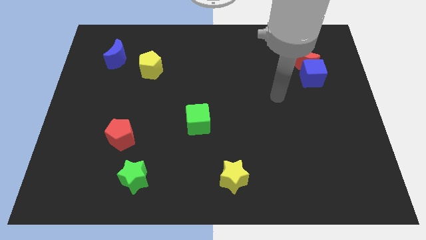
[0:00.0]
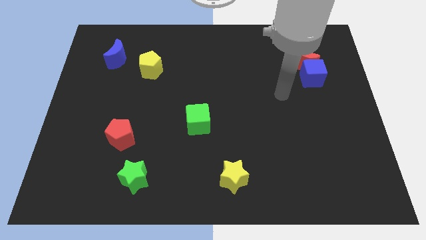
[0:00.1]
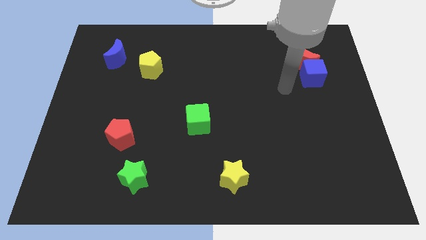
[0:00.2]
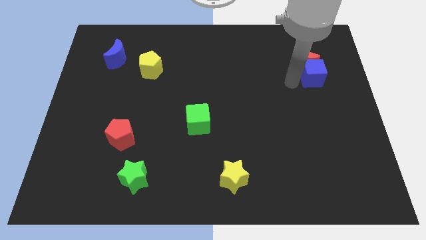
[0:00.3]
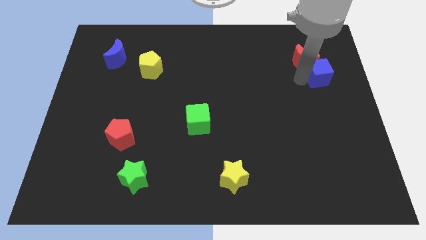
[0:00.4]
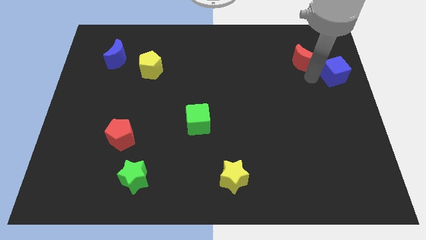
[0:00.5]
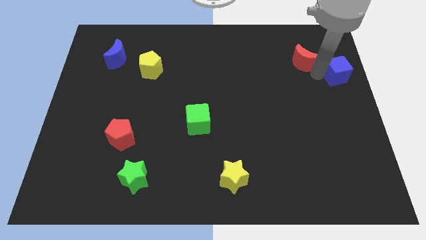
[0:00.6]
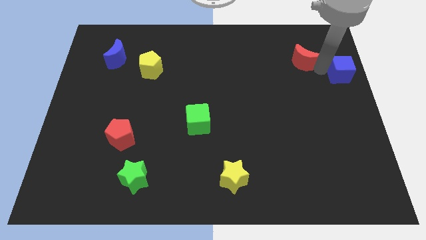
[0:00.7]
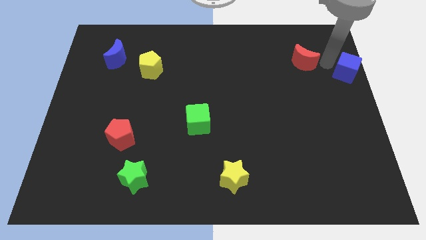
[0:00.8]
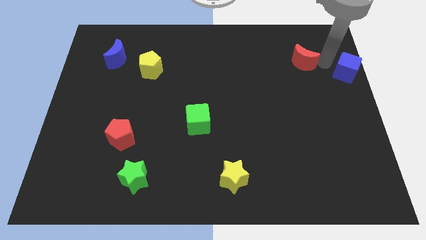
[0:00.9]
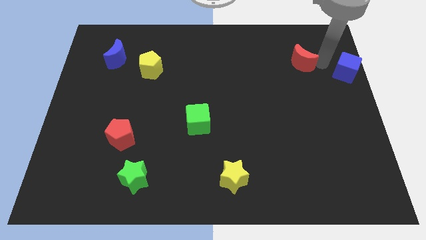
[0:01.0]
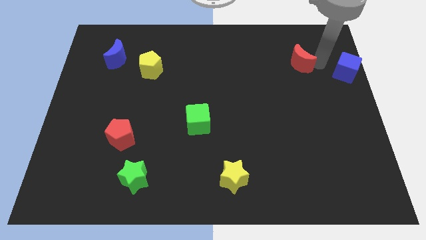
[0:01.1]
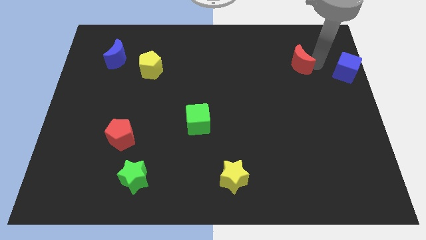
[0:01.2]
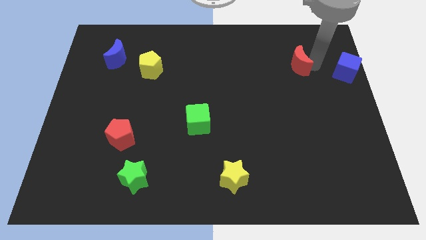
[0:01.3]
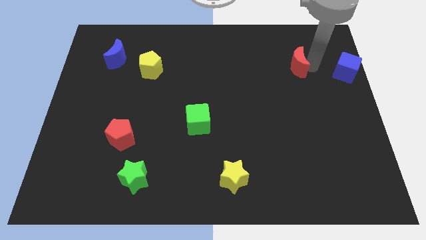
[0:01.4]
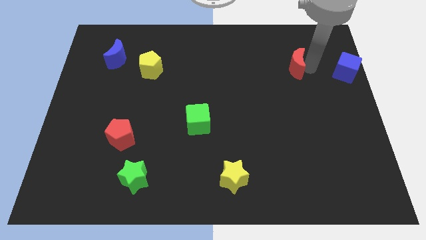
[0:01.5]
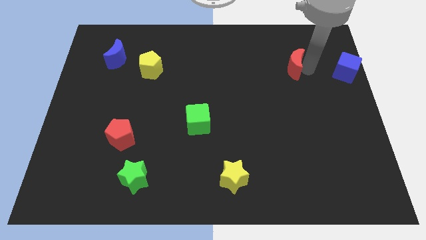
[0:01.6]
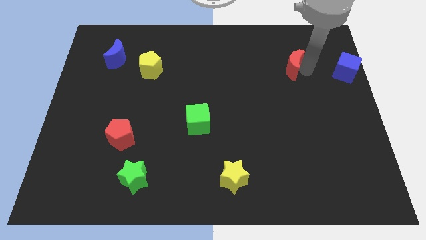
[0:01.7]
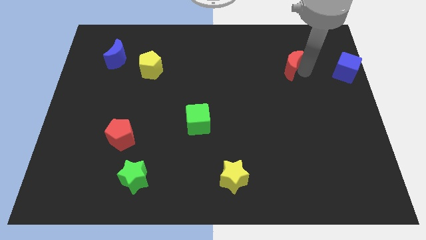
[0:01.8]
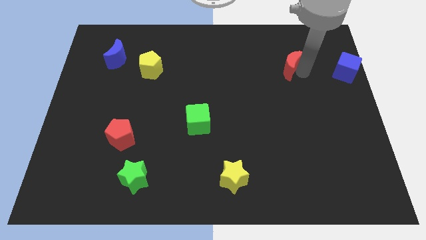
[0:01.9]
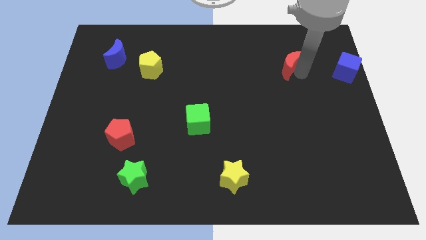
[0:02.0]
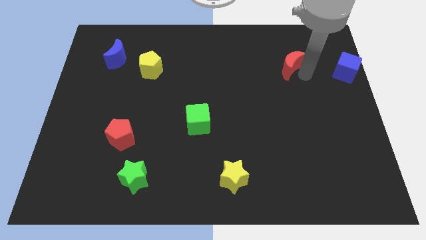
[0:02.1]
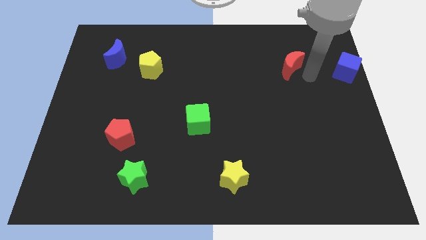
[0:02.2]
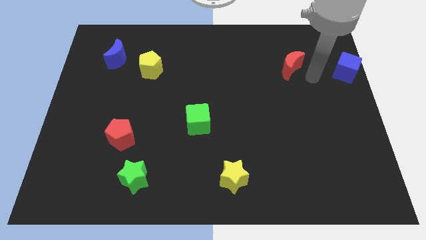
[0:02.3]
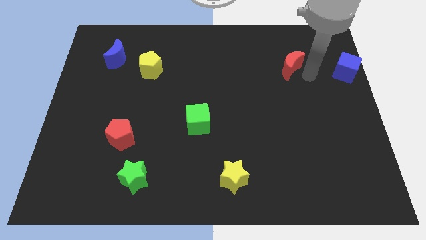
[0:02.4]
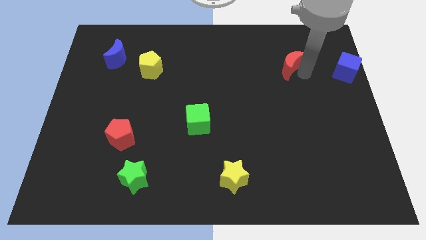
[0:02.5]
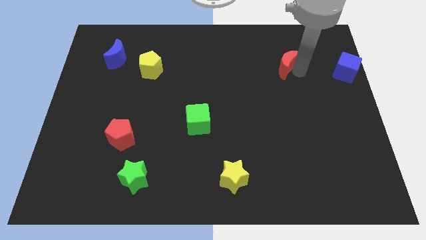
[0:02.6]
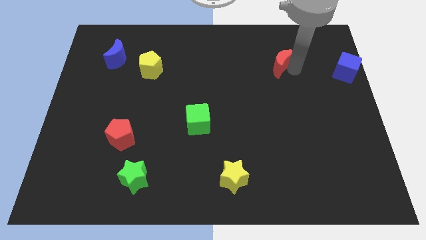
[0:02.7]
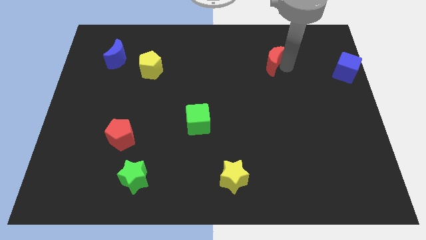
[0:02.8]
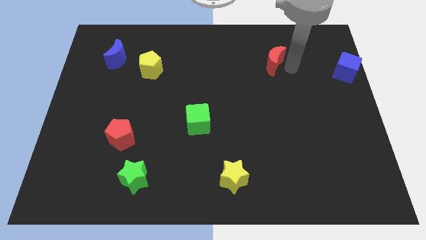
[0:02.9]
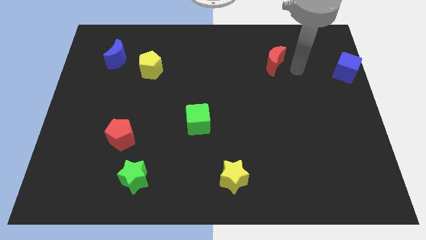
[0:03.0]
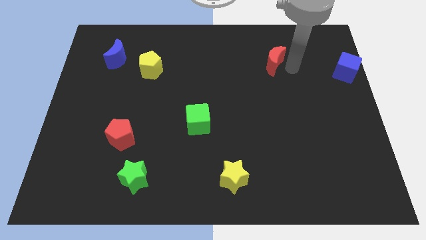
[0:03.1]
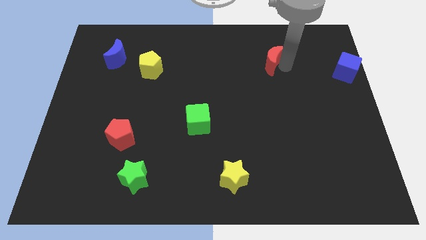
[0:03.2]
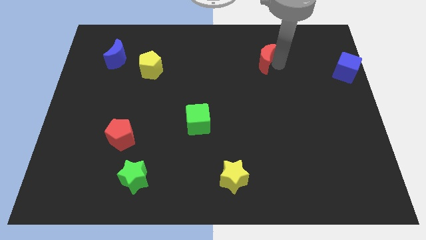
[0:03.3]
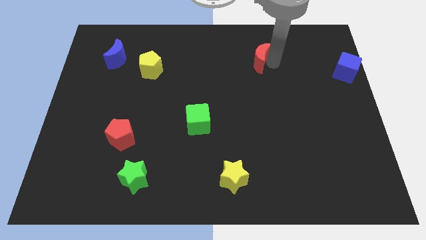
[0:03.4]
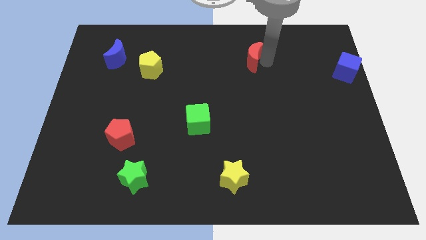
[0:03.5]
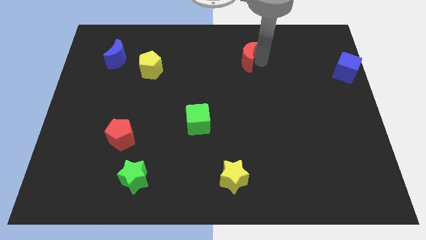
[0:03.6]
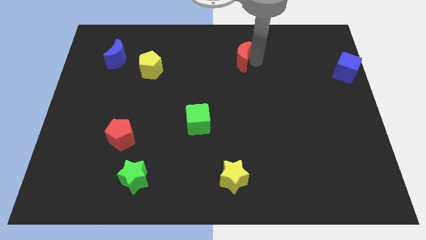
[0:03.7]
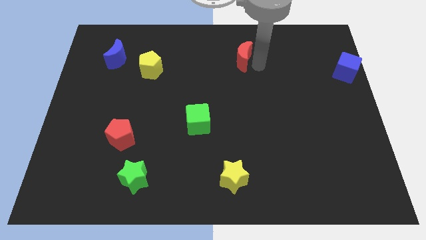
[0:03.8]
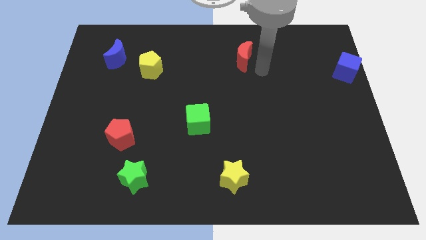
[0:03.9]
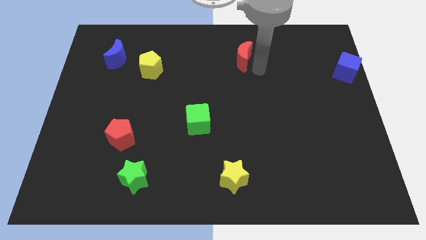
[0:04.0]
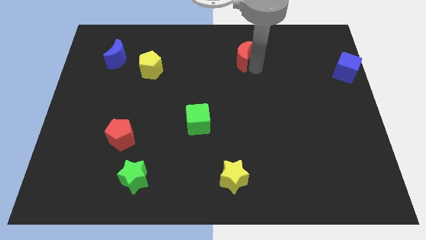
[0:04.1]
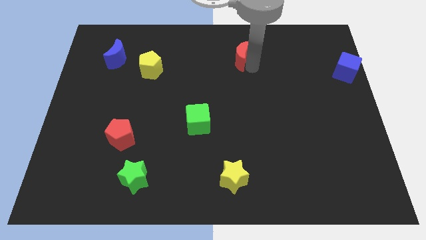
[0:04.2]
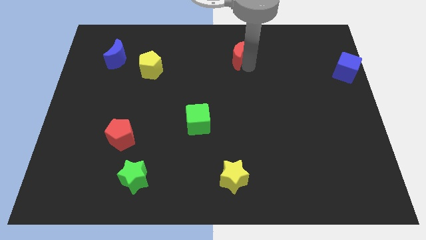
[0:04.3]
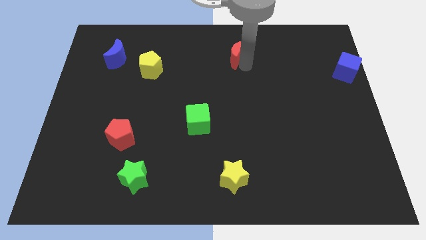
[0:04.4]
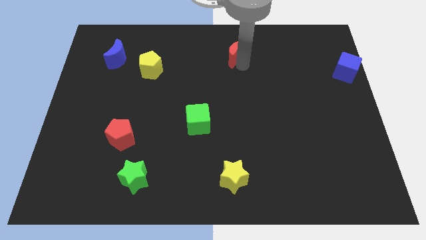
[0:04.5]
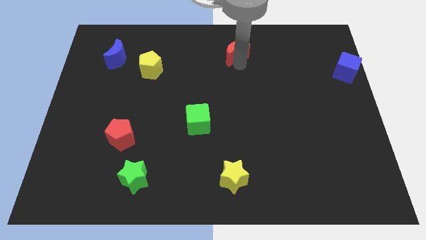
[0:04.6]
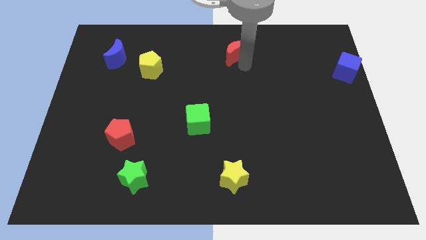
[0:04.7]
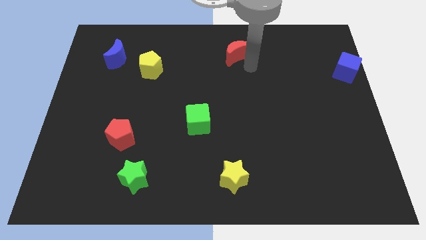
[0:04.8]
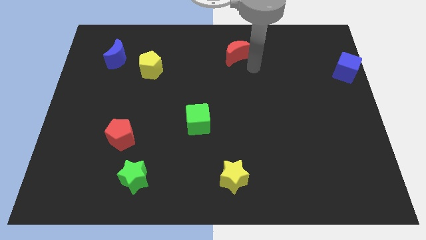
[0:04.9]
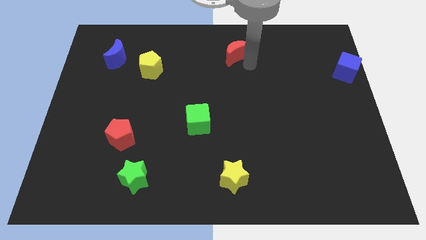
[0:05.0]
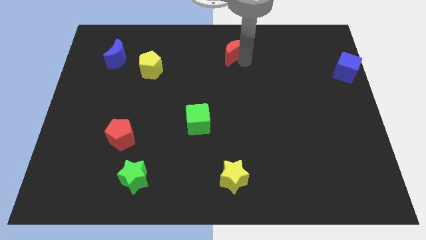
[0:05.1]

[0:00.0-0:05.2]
put the red moon to the top

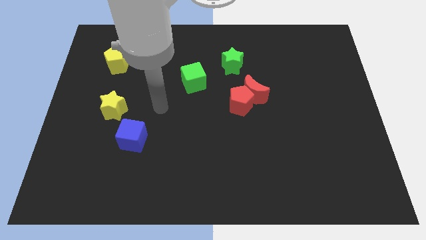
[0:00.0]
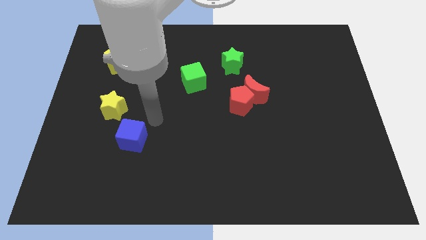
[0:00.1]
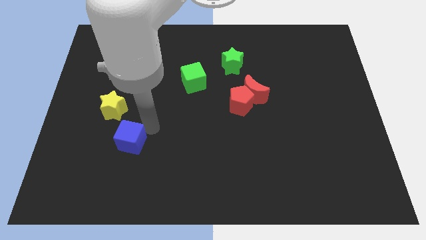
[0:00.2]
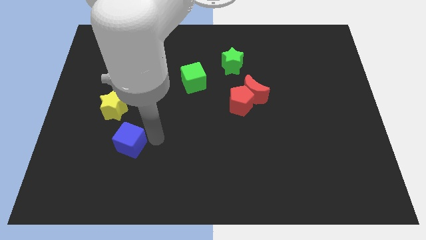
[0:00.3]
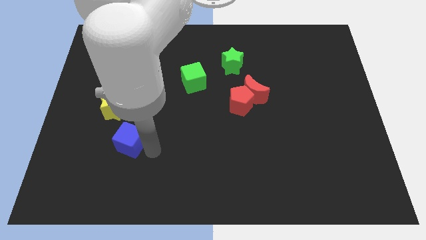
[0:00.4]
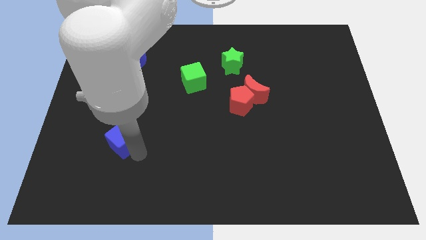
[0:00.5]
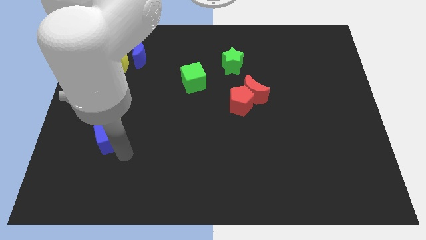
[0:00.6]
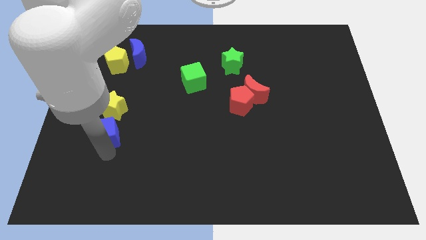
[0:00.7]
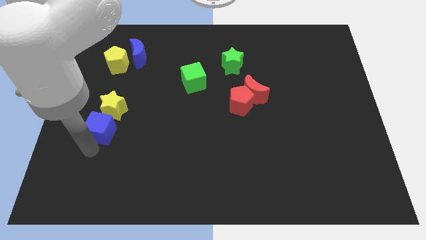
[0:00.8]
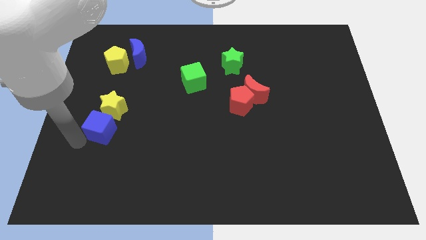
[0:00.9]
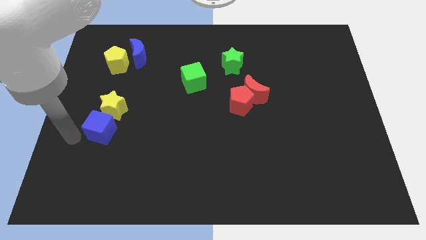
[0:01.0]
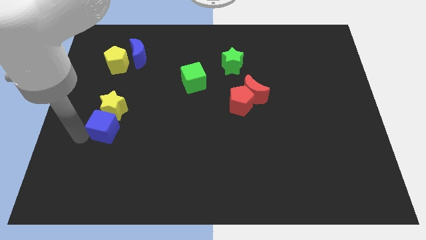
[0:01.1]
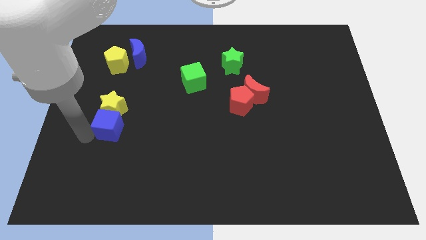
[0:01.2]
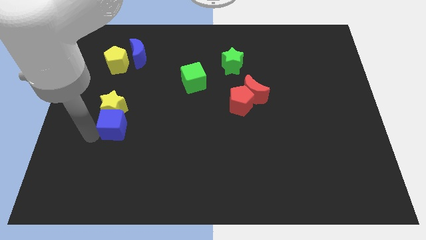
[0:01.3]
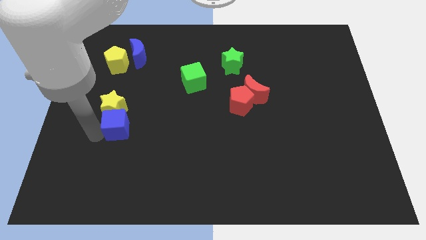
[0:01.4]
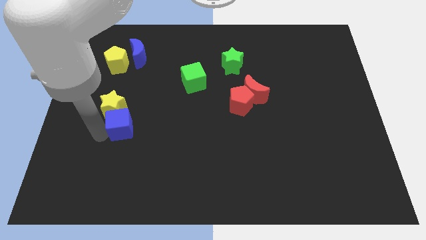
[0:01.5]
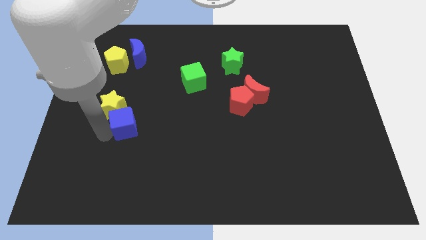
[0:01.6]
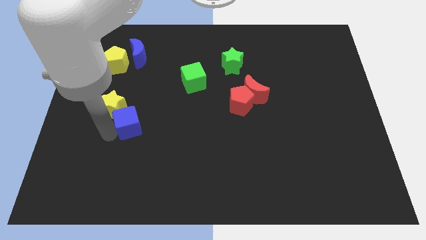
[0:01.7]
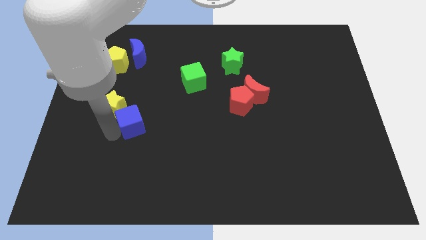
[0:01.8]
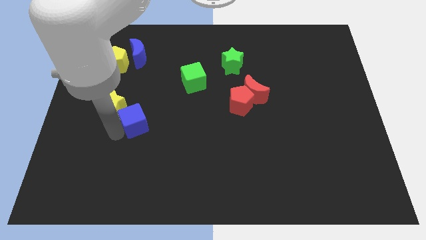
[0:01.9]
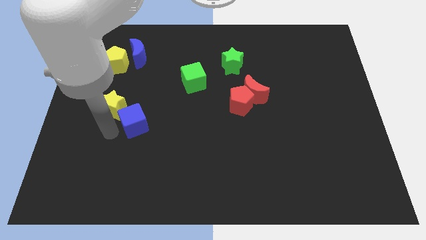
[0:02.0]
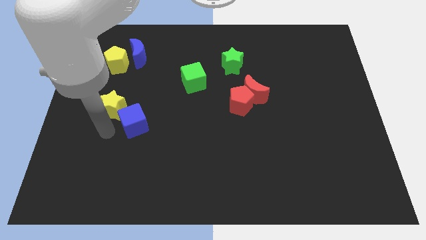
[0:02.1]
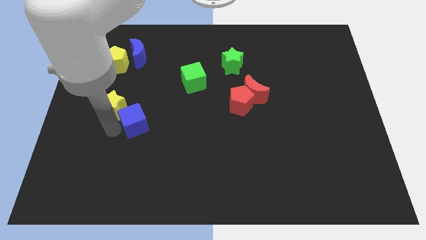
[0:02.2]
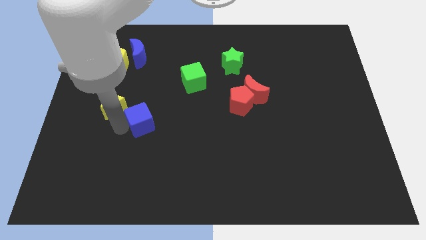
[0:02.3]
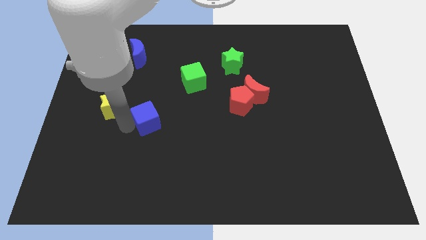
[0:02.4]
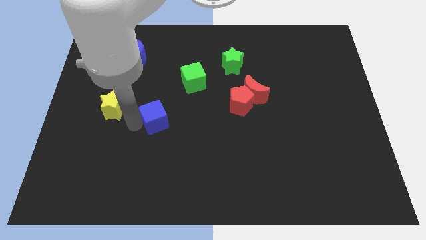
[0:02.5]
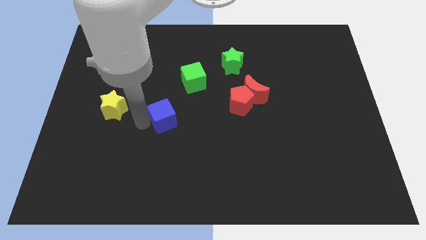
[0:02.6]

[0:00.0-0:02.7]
put the blue cube to the center
